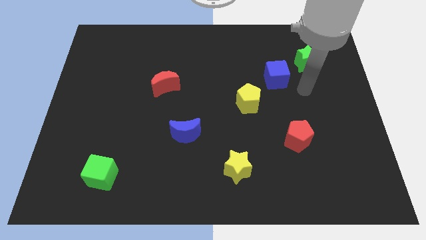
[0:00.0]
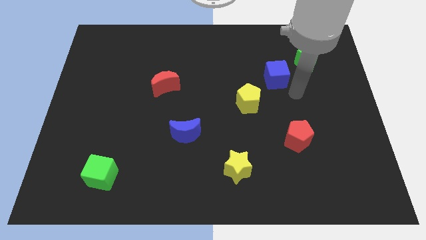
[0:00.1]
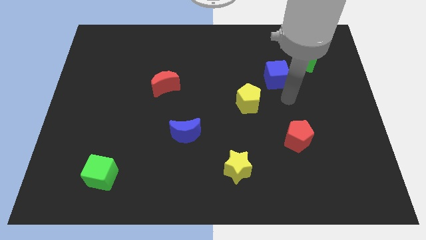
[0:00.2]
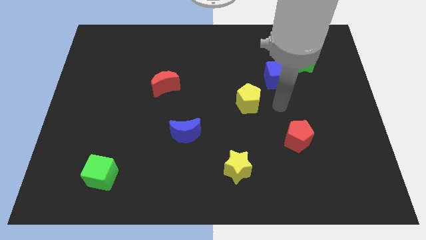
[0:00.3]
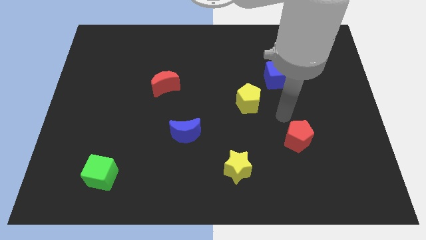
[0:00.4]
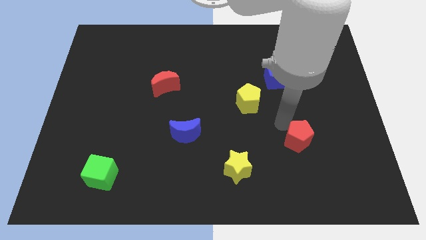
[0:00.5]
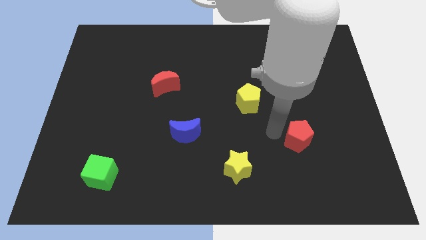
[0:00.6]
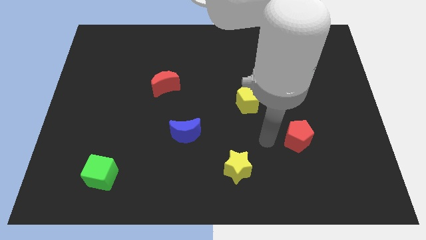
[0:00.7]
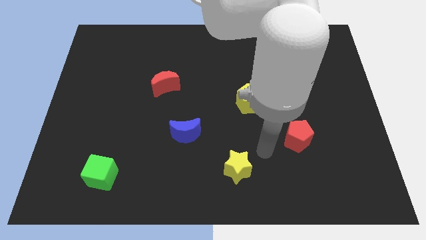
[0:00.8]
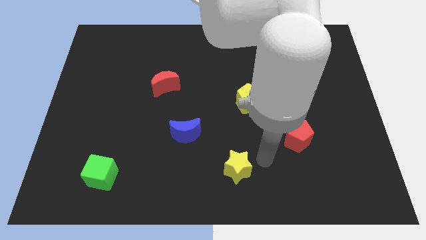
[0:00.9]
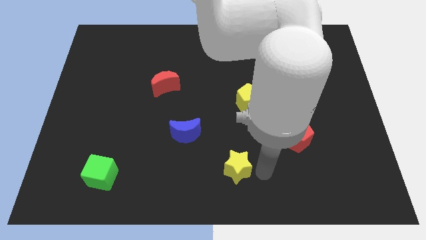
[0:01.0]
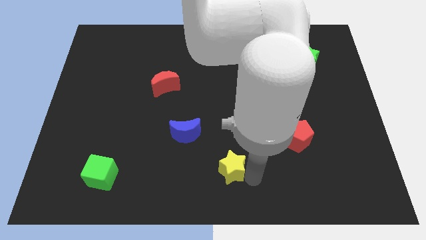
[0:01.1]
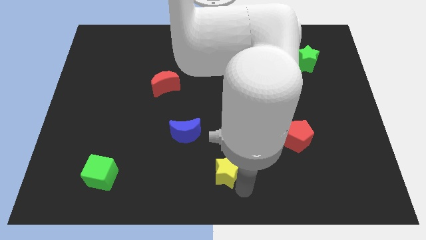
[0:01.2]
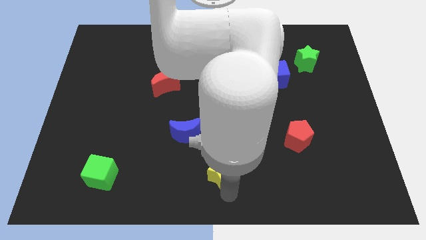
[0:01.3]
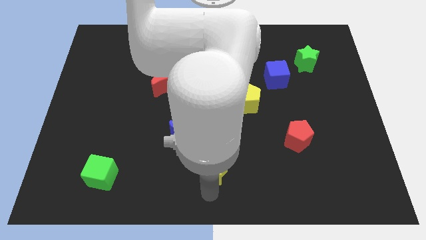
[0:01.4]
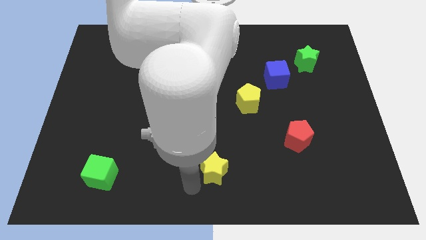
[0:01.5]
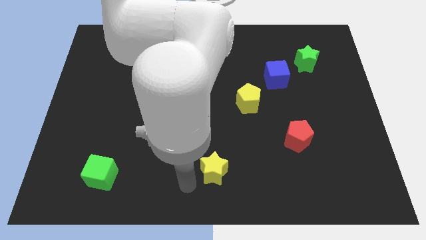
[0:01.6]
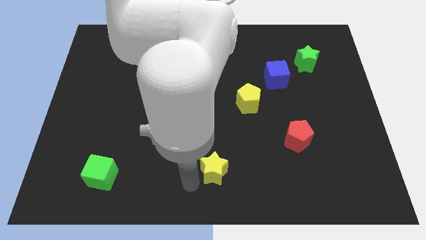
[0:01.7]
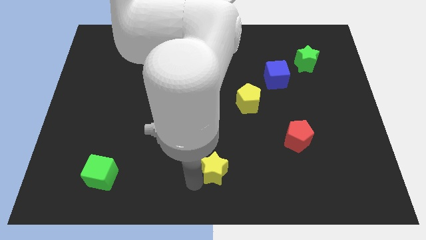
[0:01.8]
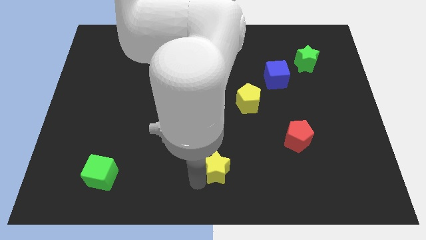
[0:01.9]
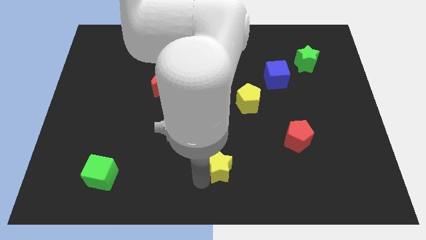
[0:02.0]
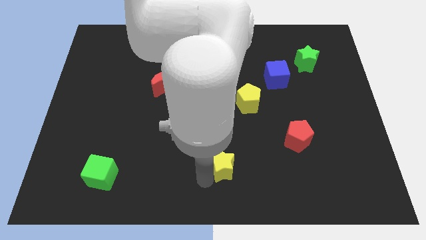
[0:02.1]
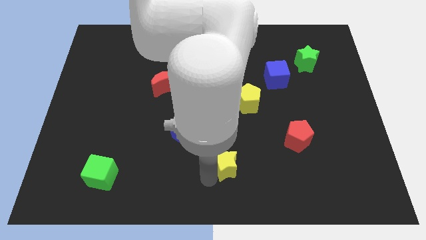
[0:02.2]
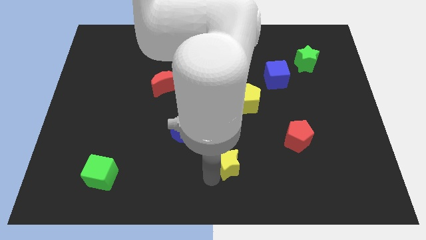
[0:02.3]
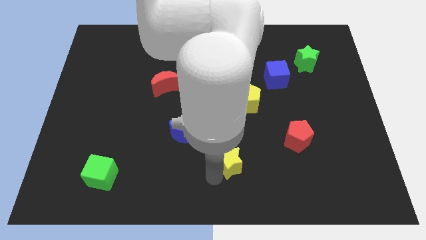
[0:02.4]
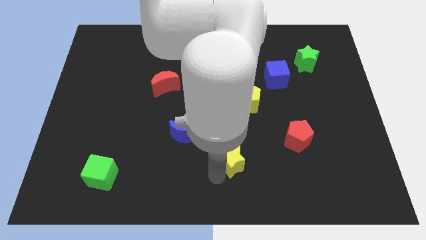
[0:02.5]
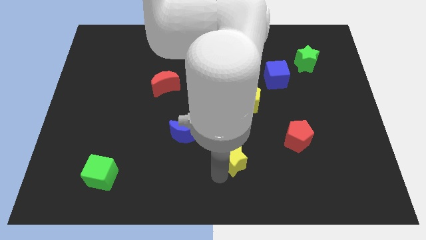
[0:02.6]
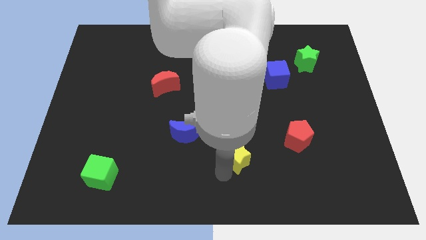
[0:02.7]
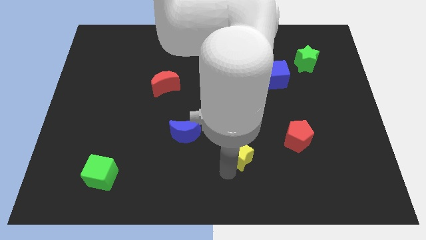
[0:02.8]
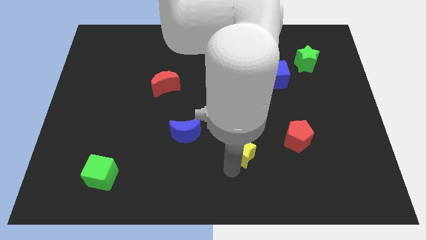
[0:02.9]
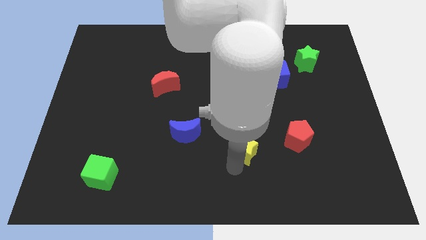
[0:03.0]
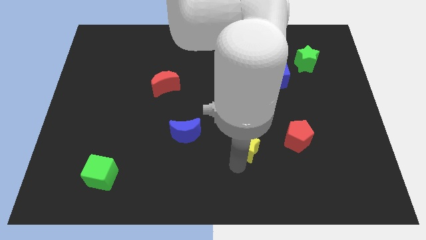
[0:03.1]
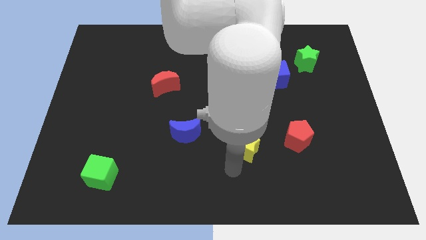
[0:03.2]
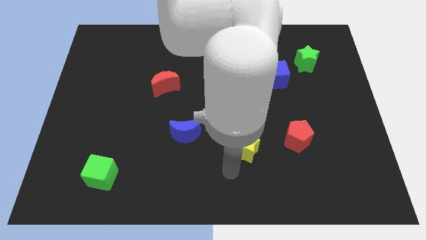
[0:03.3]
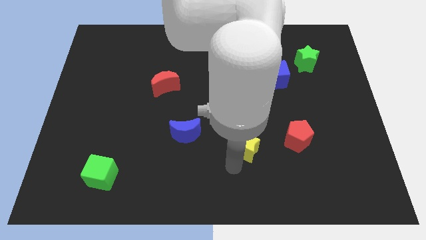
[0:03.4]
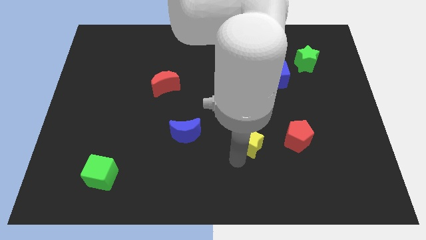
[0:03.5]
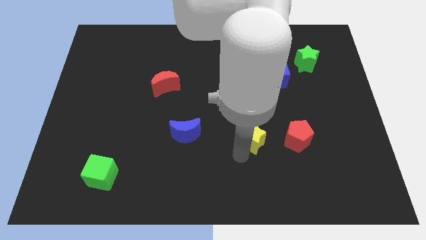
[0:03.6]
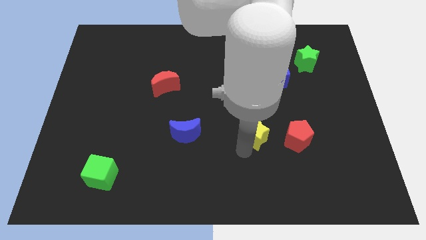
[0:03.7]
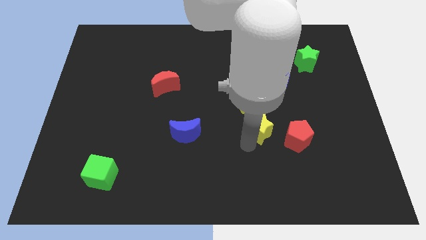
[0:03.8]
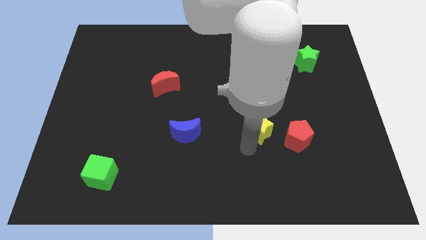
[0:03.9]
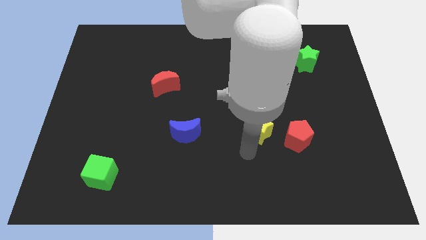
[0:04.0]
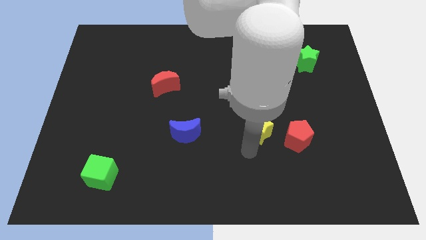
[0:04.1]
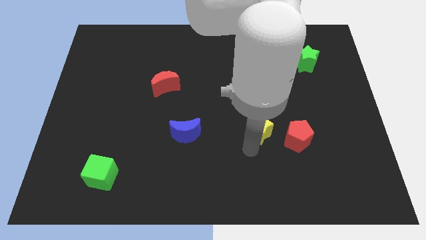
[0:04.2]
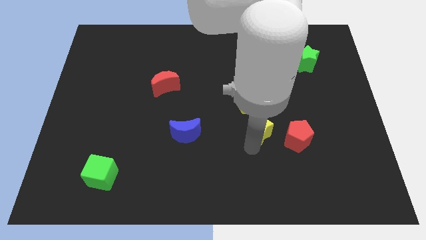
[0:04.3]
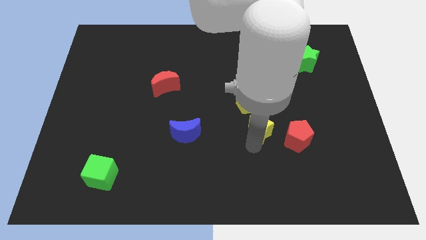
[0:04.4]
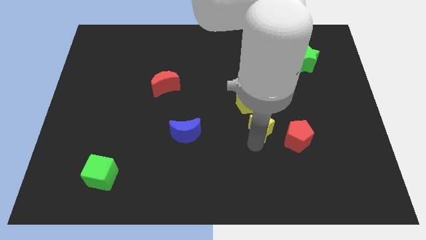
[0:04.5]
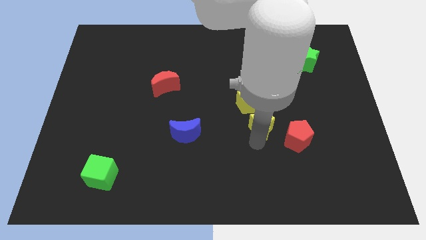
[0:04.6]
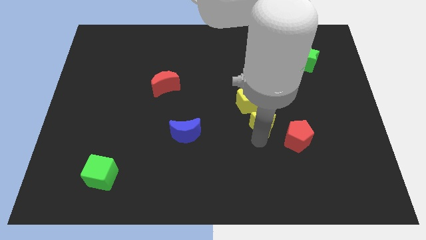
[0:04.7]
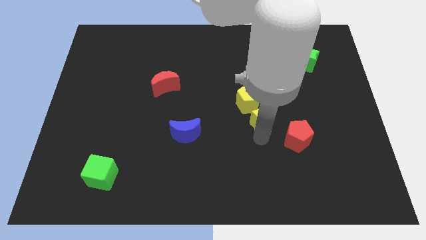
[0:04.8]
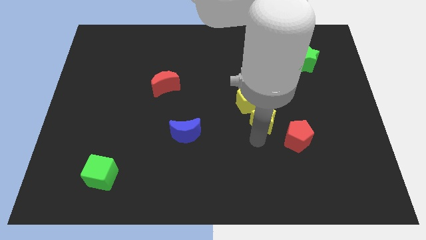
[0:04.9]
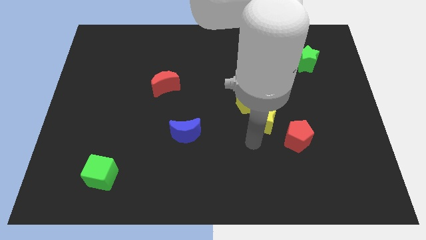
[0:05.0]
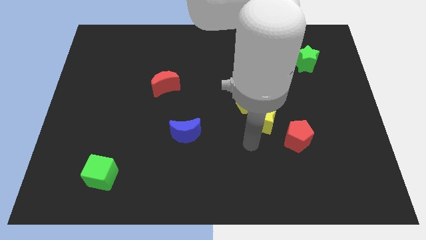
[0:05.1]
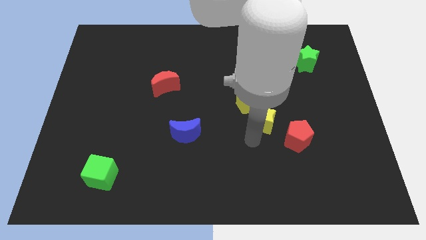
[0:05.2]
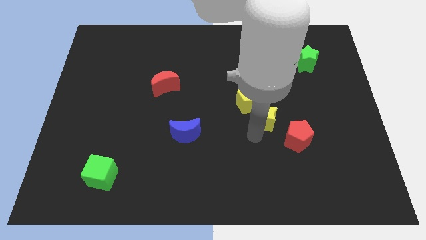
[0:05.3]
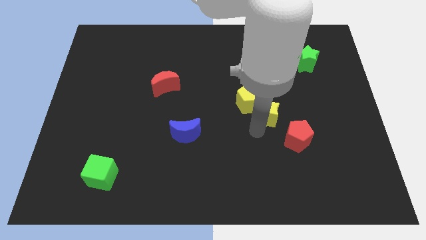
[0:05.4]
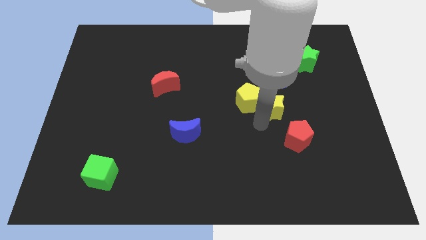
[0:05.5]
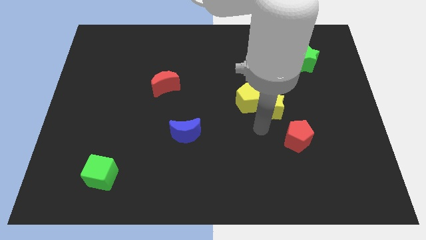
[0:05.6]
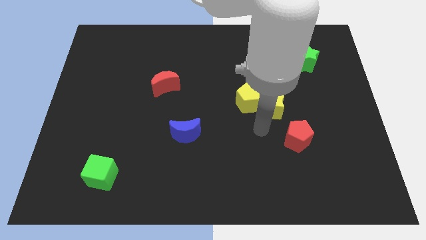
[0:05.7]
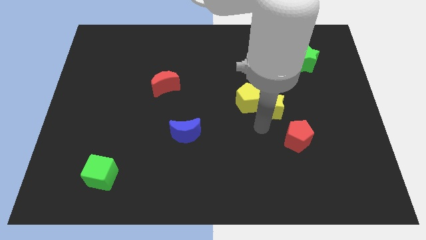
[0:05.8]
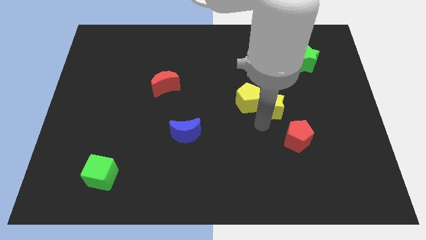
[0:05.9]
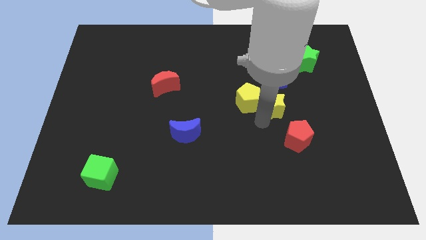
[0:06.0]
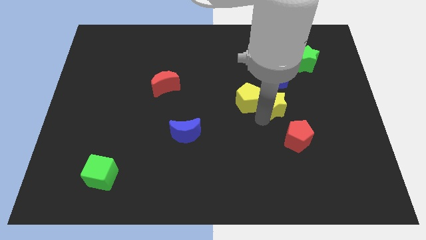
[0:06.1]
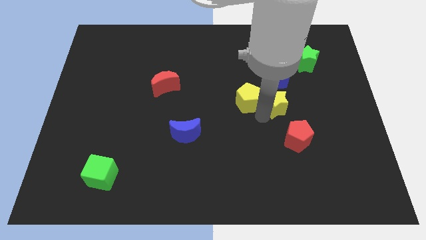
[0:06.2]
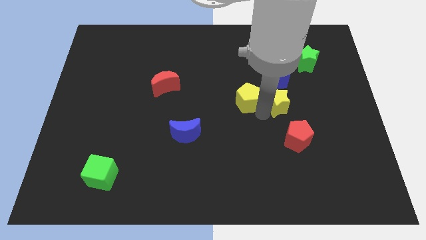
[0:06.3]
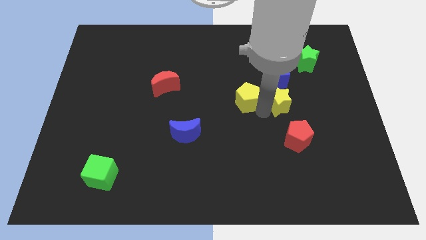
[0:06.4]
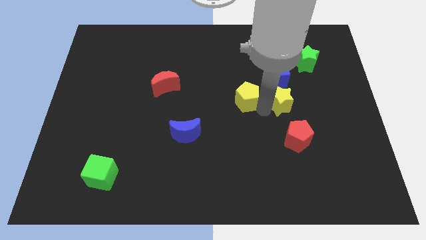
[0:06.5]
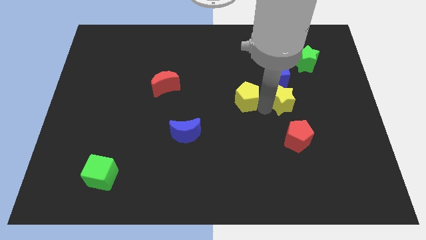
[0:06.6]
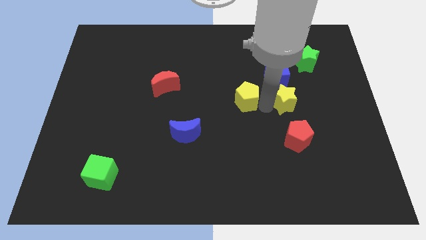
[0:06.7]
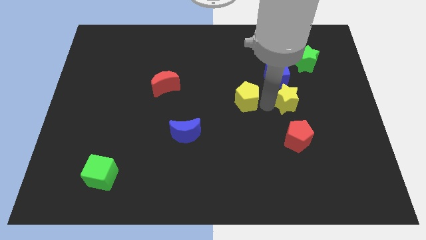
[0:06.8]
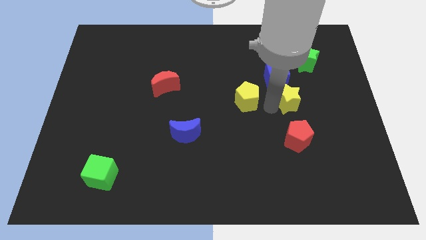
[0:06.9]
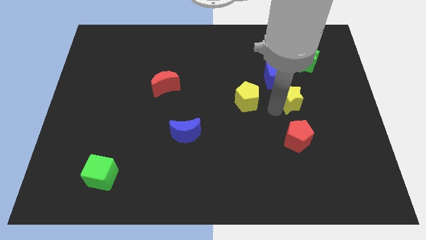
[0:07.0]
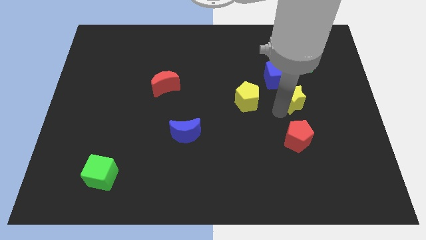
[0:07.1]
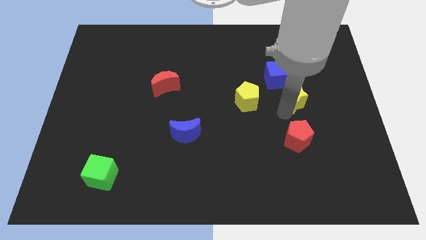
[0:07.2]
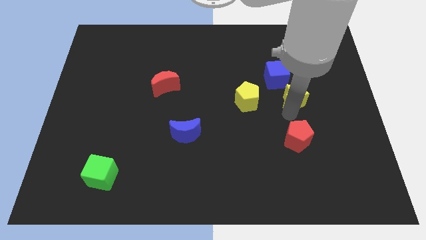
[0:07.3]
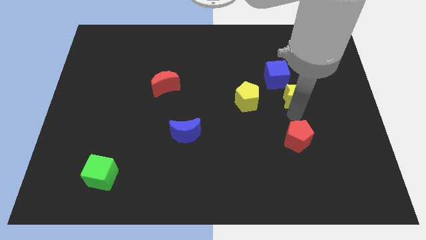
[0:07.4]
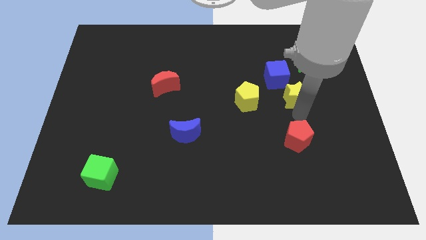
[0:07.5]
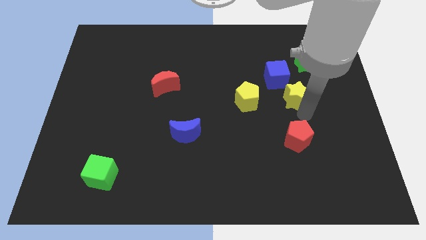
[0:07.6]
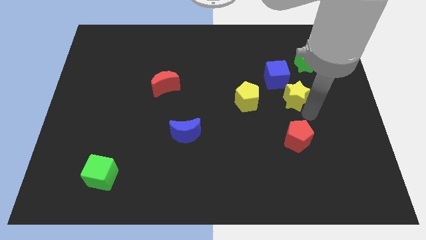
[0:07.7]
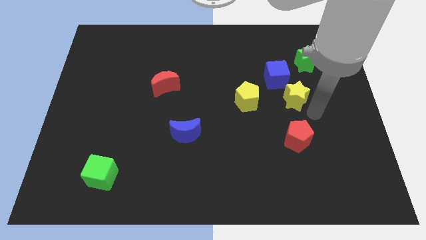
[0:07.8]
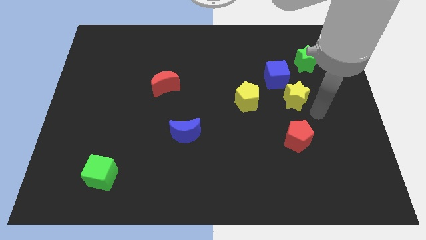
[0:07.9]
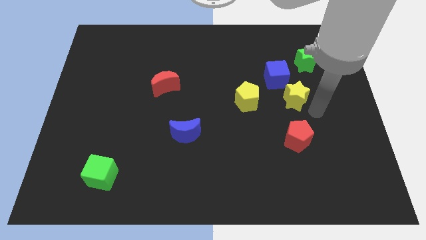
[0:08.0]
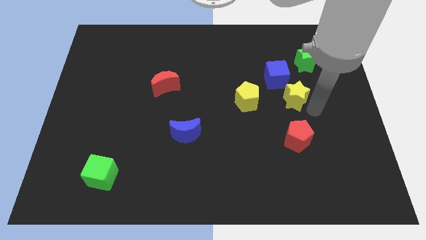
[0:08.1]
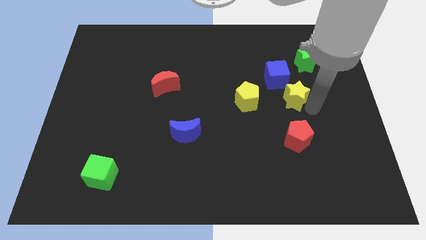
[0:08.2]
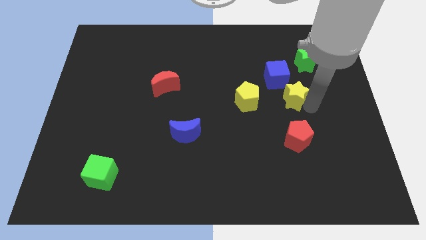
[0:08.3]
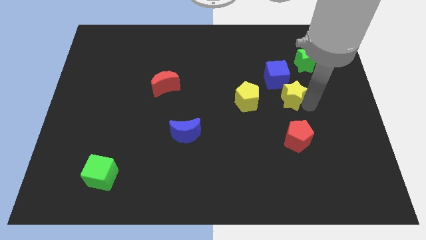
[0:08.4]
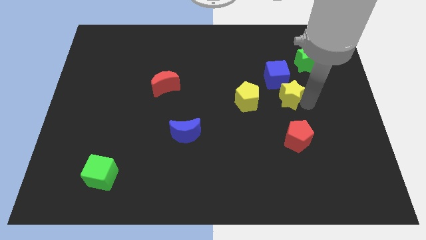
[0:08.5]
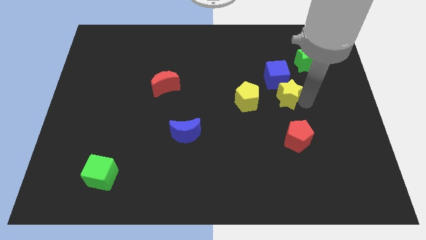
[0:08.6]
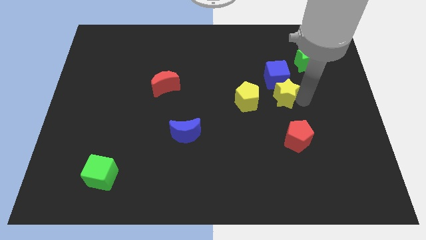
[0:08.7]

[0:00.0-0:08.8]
slide the yellow star to the blue cube
